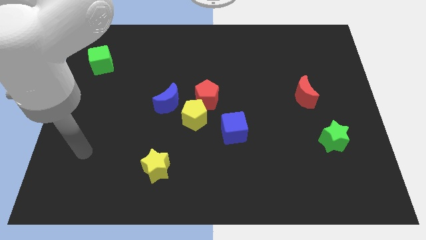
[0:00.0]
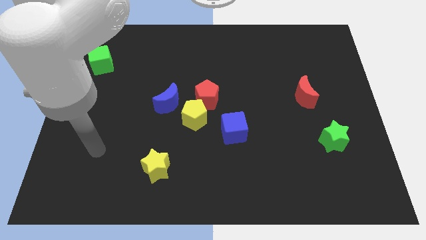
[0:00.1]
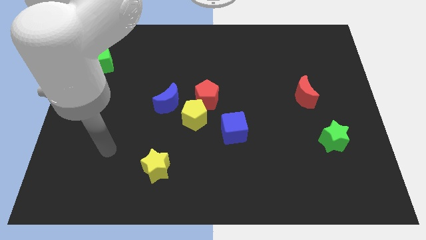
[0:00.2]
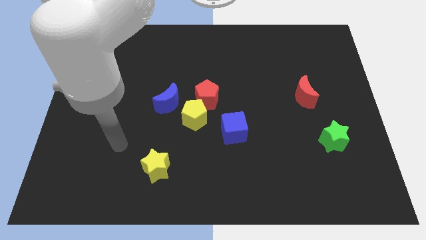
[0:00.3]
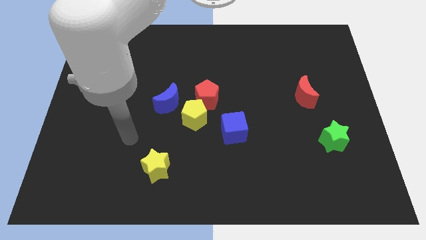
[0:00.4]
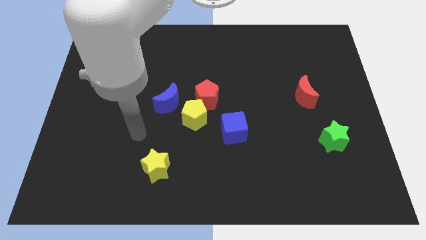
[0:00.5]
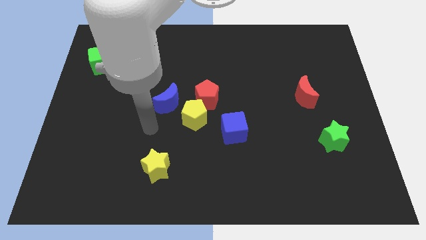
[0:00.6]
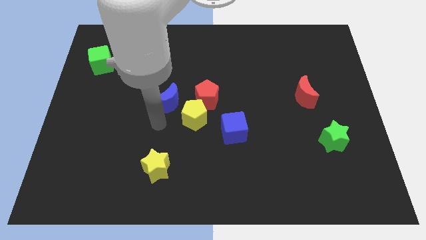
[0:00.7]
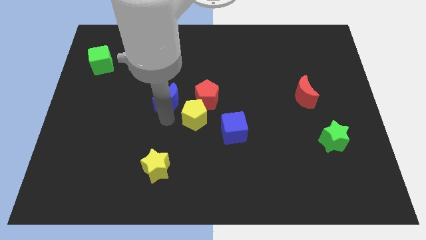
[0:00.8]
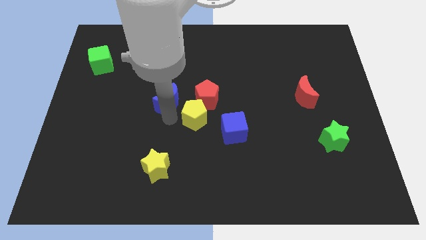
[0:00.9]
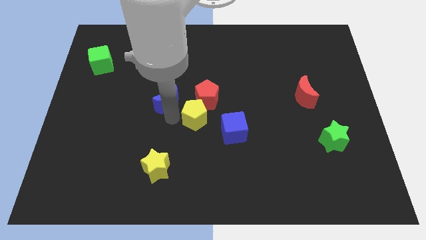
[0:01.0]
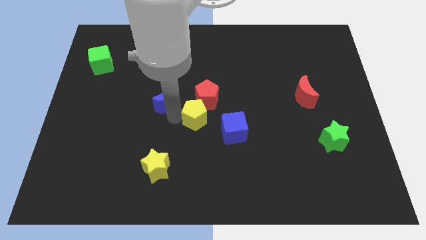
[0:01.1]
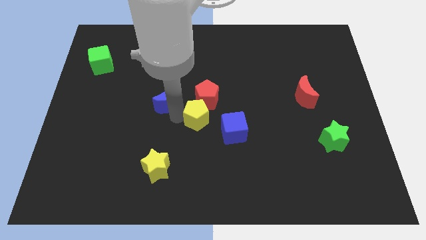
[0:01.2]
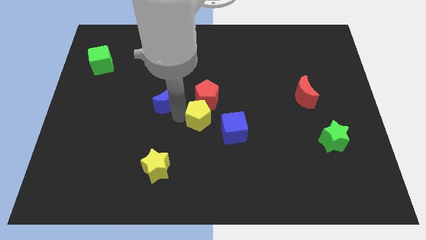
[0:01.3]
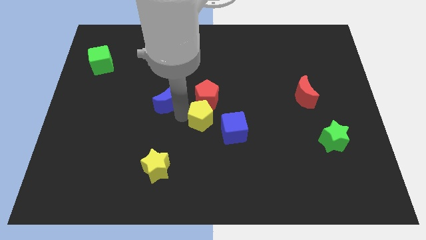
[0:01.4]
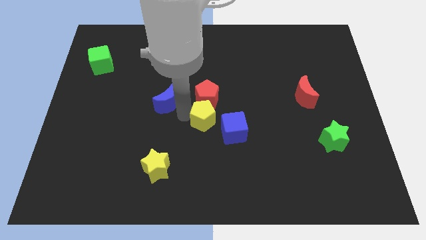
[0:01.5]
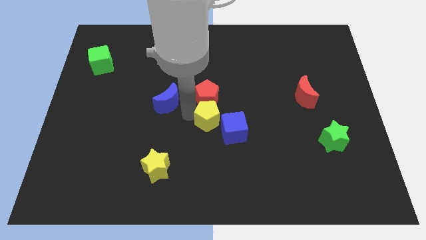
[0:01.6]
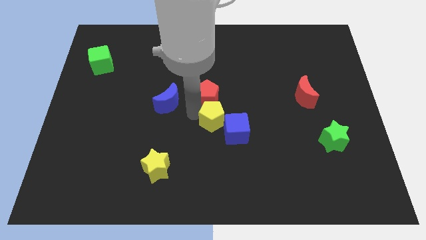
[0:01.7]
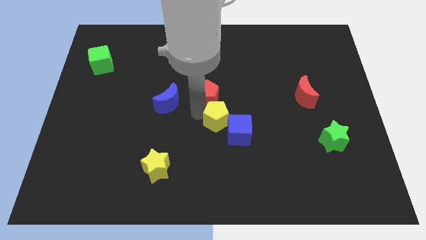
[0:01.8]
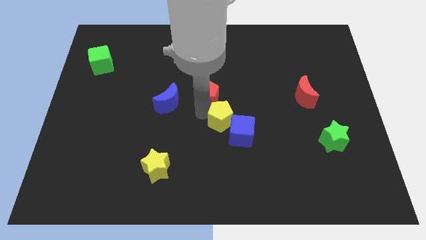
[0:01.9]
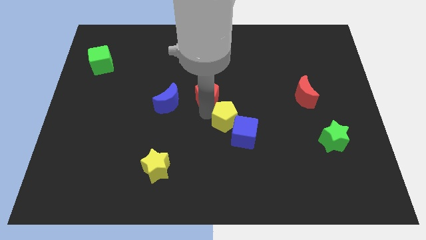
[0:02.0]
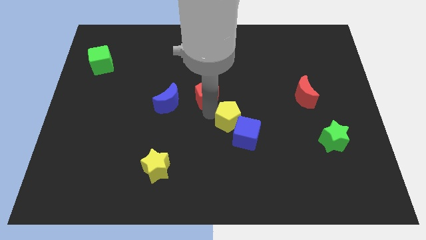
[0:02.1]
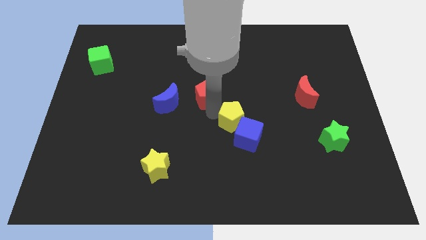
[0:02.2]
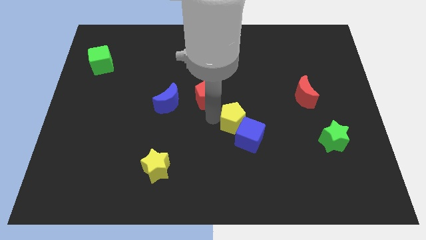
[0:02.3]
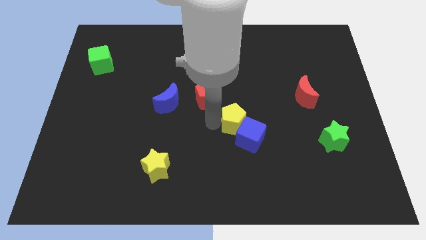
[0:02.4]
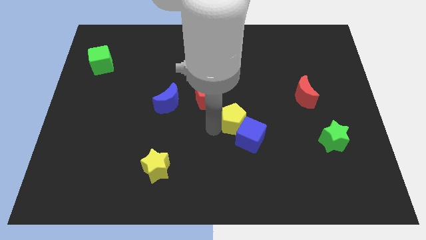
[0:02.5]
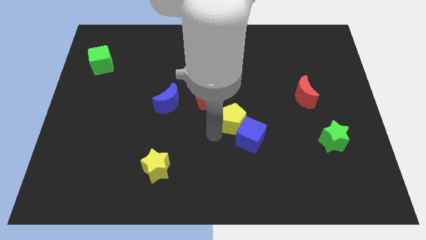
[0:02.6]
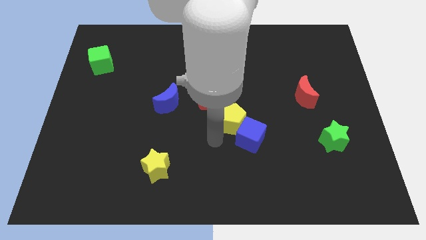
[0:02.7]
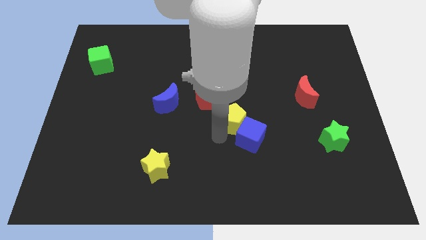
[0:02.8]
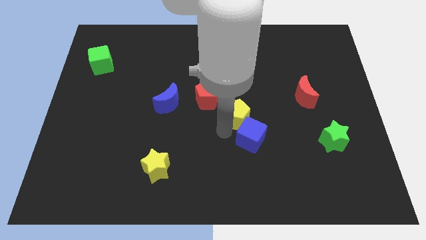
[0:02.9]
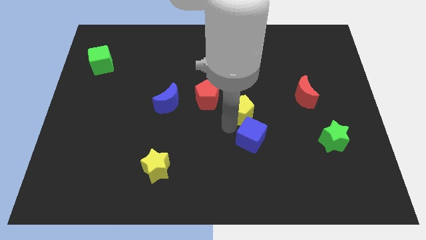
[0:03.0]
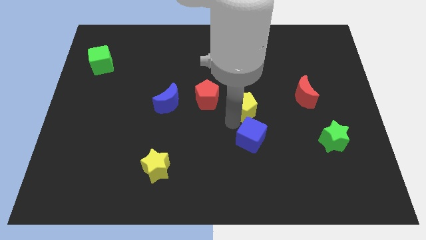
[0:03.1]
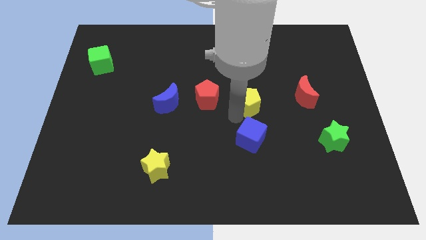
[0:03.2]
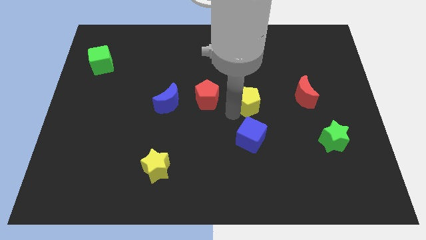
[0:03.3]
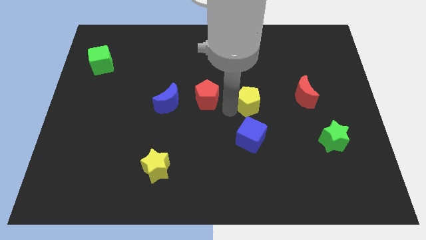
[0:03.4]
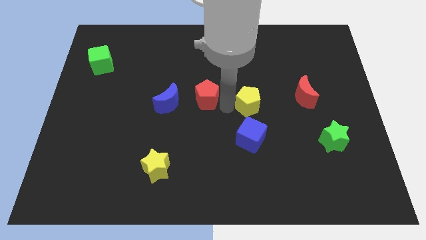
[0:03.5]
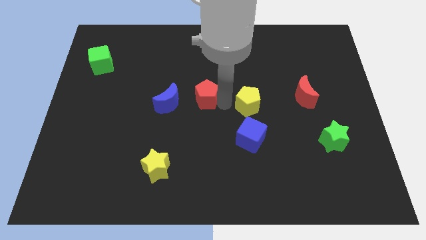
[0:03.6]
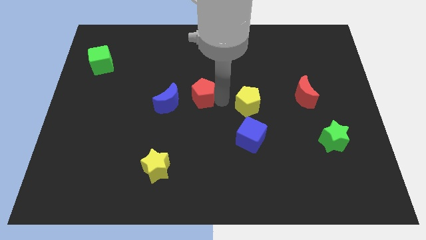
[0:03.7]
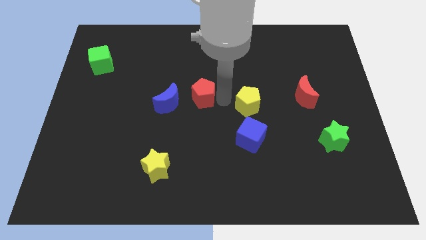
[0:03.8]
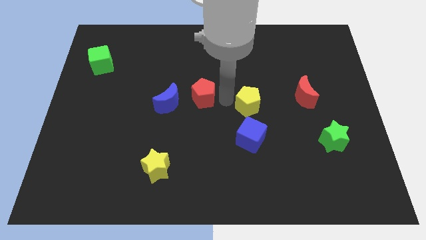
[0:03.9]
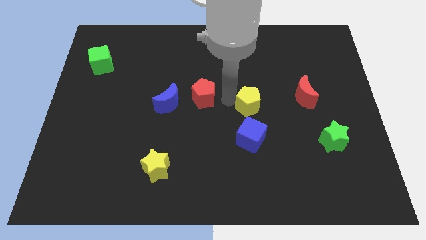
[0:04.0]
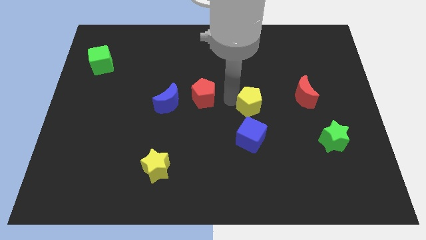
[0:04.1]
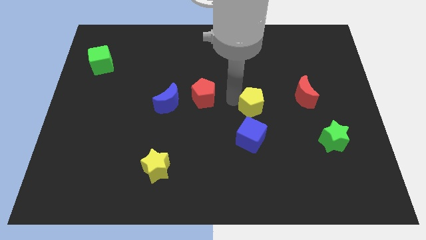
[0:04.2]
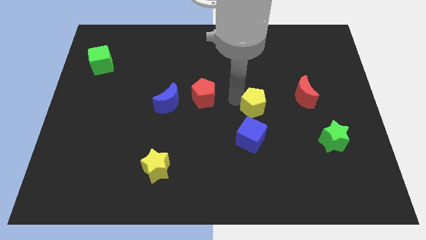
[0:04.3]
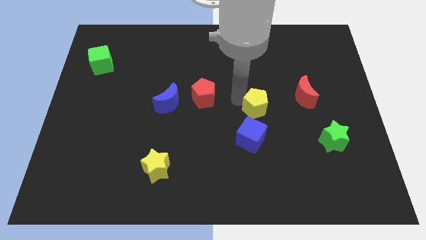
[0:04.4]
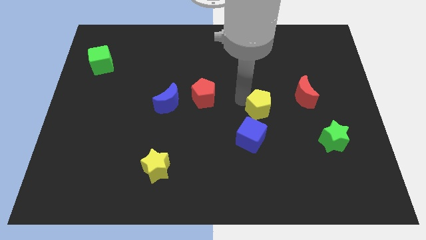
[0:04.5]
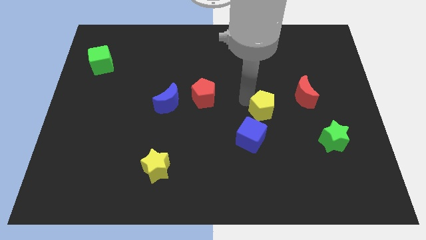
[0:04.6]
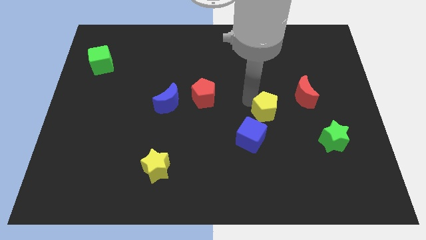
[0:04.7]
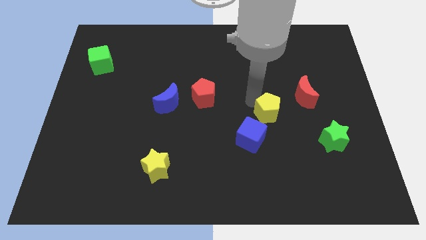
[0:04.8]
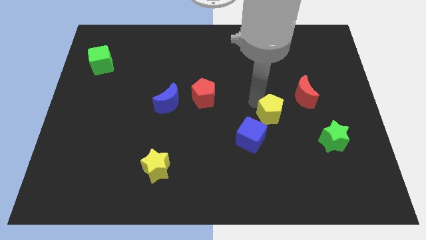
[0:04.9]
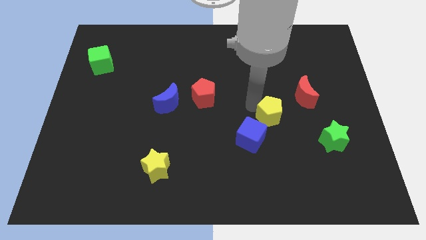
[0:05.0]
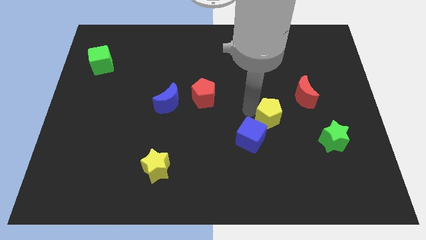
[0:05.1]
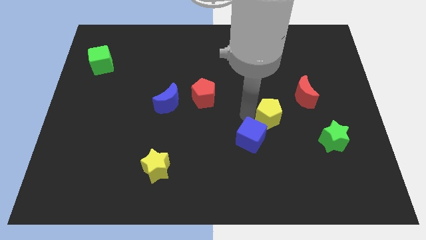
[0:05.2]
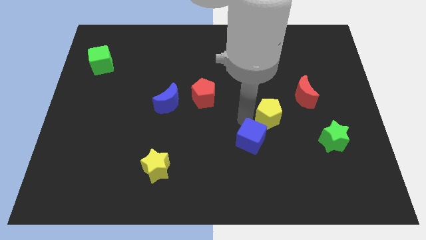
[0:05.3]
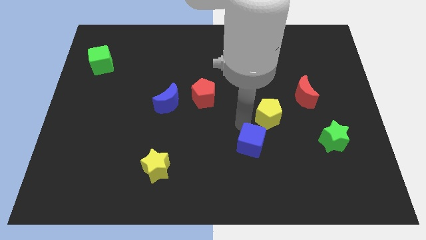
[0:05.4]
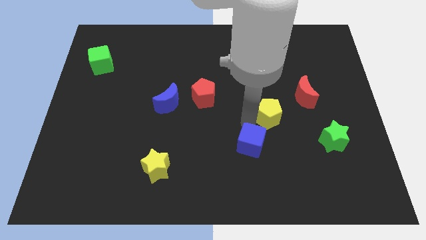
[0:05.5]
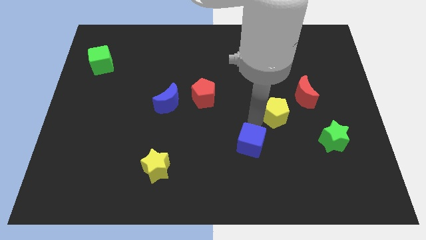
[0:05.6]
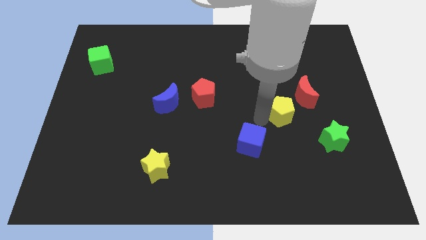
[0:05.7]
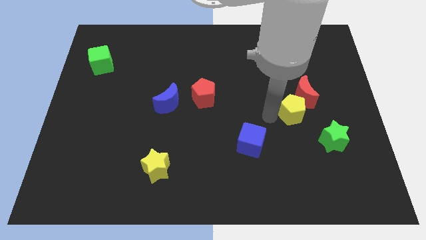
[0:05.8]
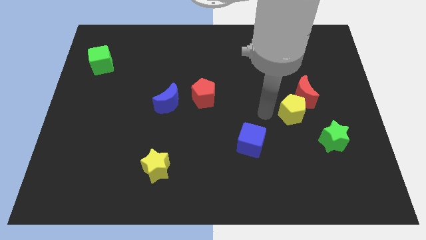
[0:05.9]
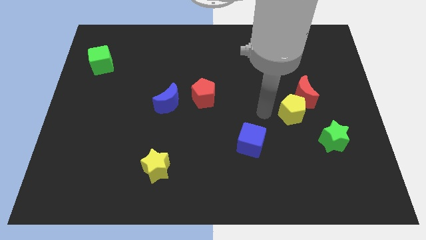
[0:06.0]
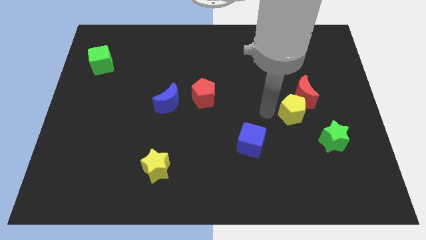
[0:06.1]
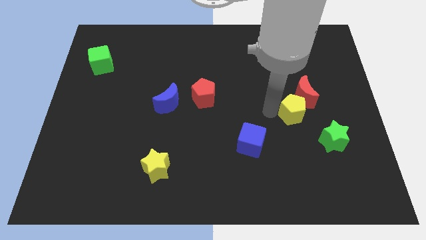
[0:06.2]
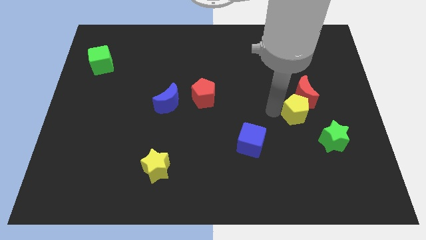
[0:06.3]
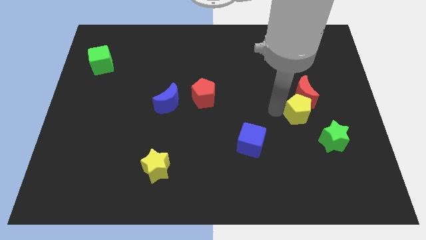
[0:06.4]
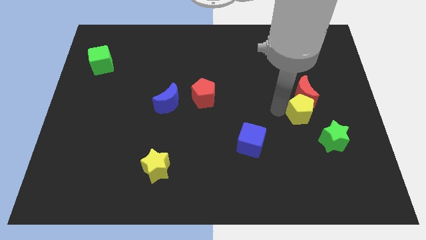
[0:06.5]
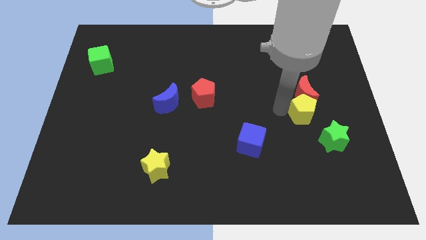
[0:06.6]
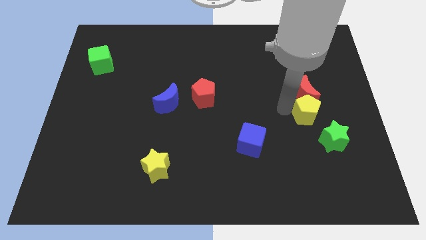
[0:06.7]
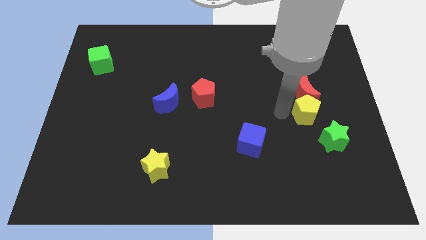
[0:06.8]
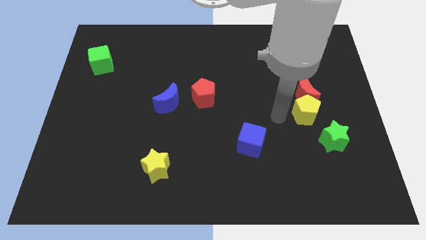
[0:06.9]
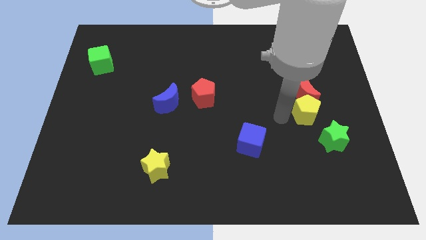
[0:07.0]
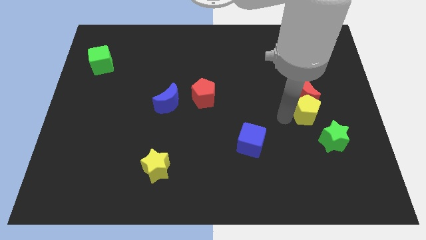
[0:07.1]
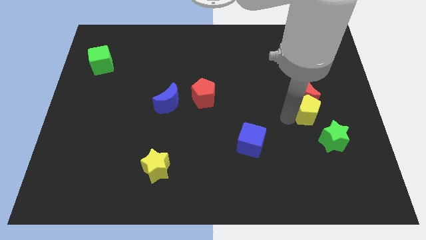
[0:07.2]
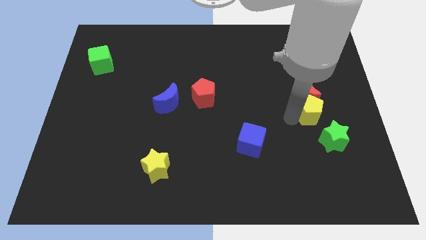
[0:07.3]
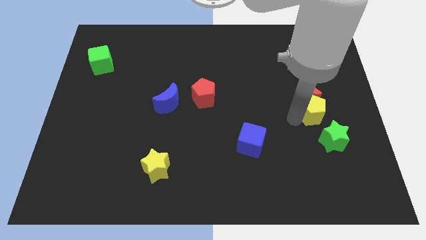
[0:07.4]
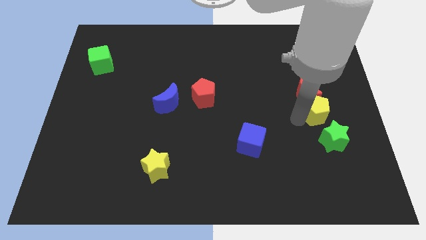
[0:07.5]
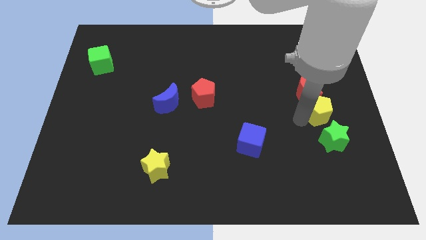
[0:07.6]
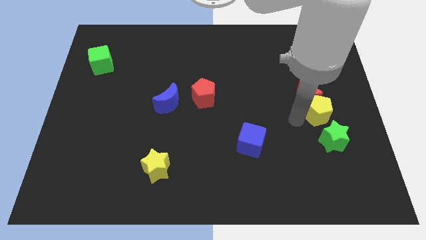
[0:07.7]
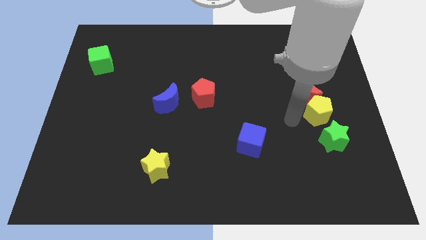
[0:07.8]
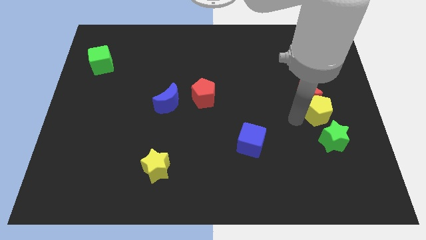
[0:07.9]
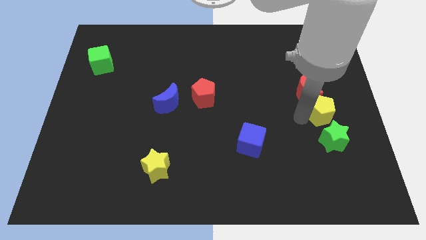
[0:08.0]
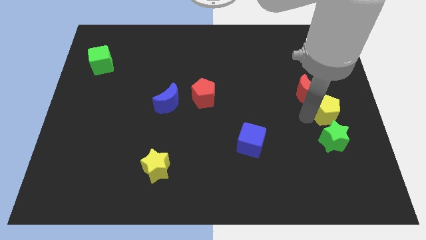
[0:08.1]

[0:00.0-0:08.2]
slide the yellow pentagon to the right side
